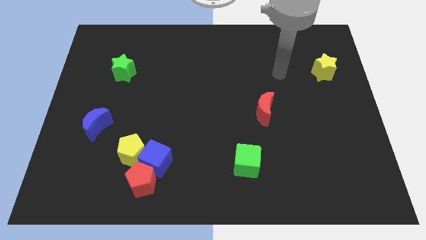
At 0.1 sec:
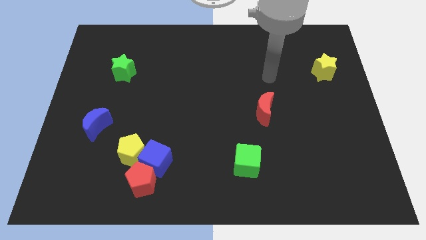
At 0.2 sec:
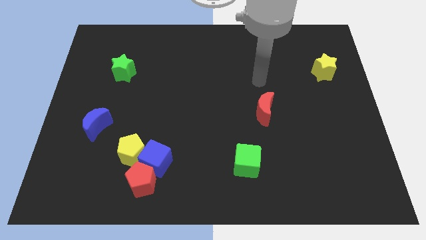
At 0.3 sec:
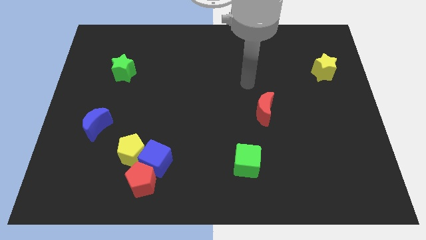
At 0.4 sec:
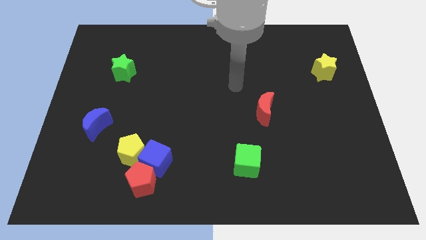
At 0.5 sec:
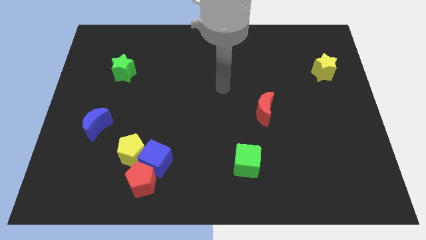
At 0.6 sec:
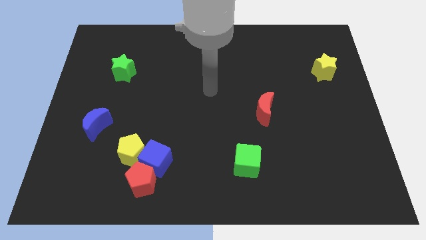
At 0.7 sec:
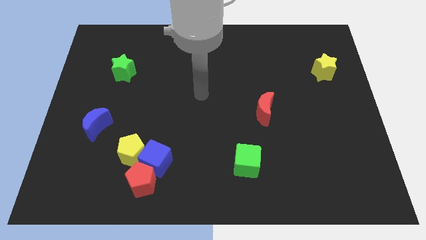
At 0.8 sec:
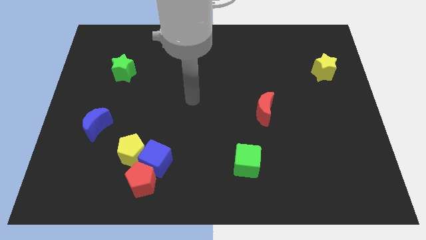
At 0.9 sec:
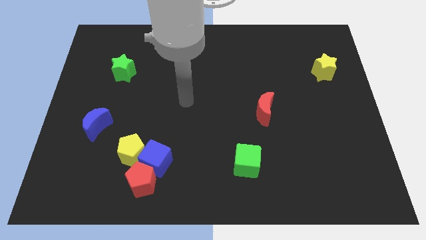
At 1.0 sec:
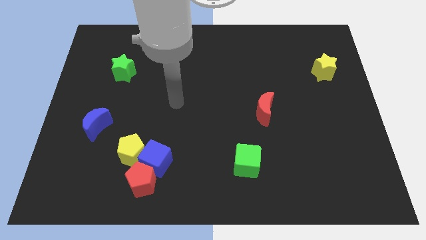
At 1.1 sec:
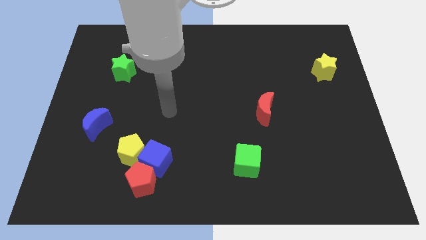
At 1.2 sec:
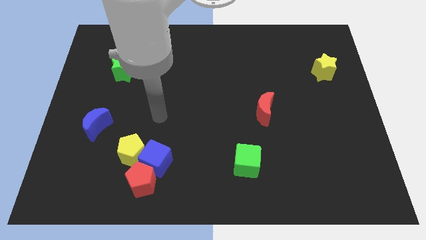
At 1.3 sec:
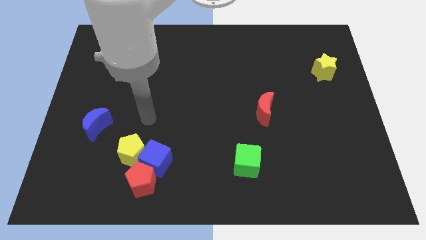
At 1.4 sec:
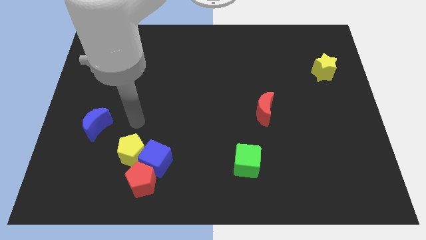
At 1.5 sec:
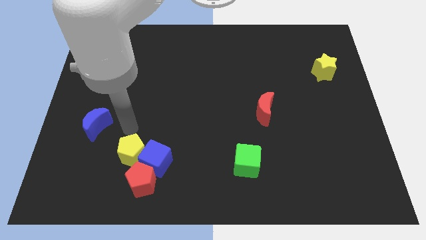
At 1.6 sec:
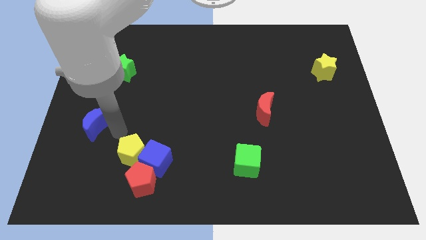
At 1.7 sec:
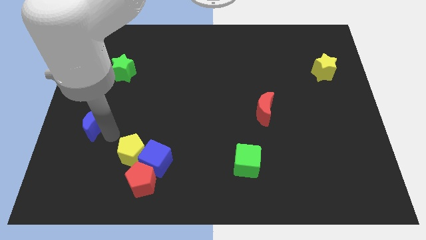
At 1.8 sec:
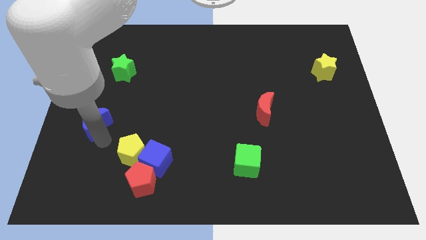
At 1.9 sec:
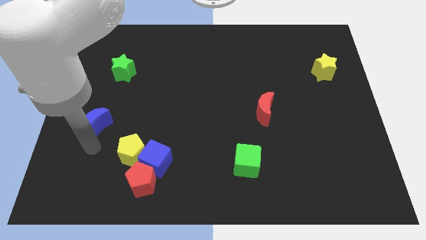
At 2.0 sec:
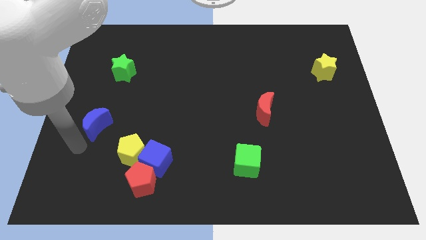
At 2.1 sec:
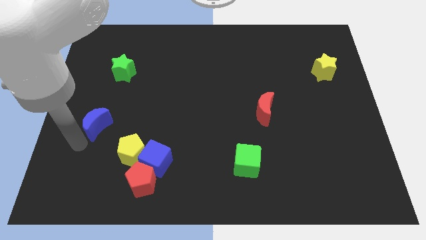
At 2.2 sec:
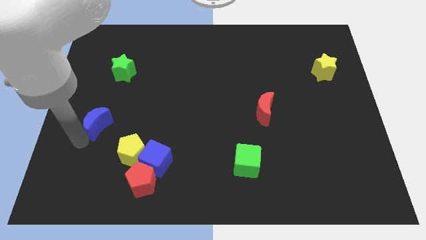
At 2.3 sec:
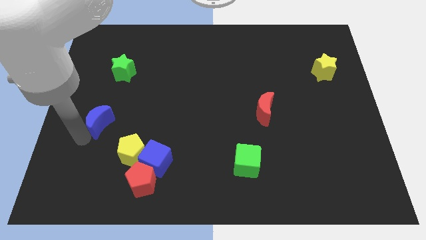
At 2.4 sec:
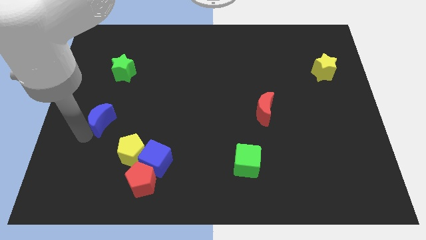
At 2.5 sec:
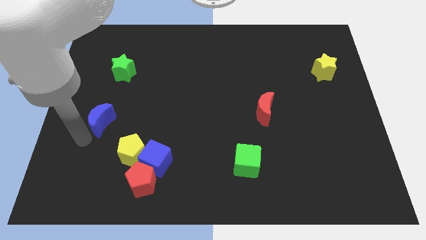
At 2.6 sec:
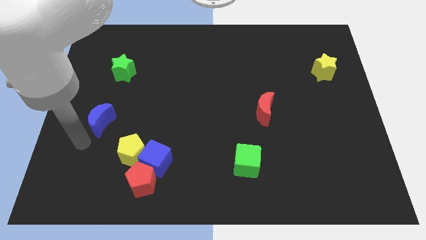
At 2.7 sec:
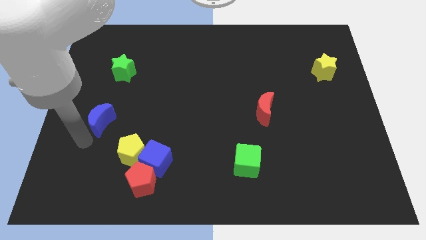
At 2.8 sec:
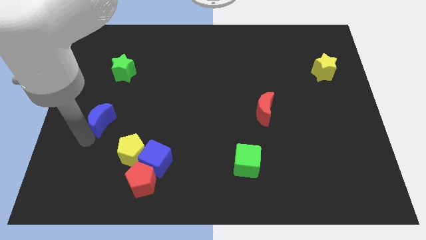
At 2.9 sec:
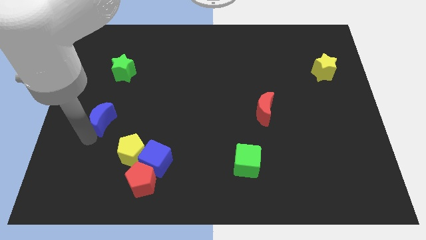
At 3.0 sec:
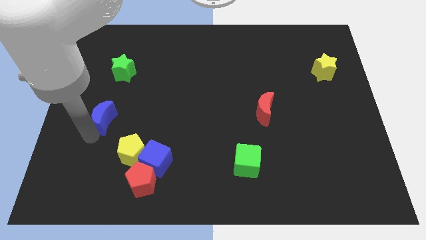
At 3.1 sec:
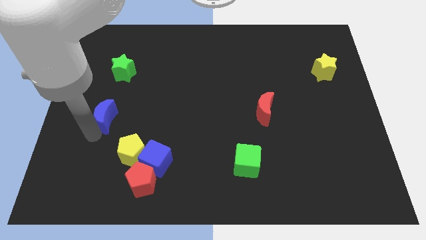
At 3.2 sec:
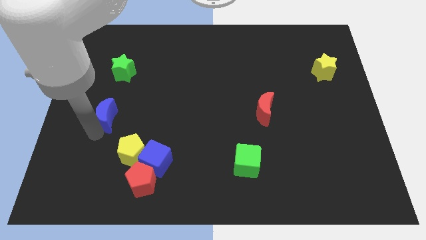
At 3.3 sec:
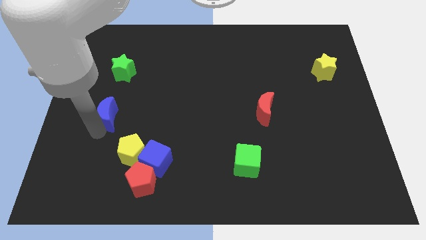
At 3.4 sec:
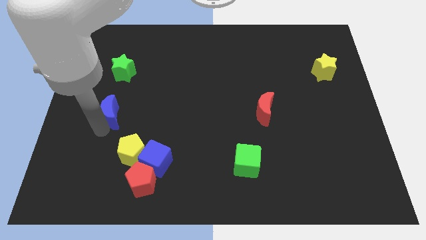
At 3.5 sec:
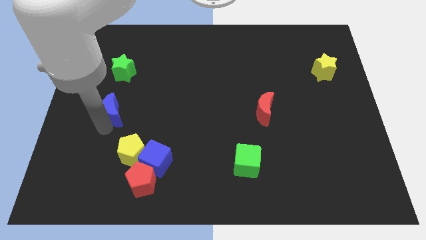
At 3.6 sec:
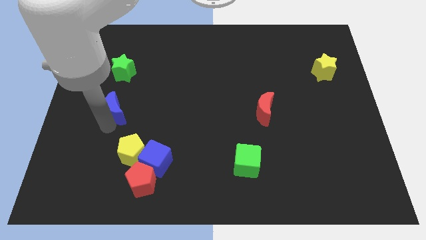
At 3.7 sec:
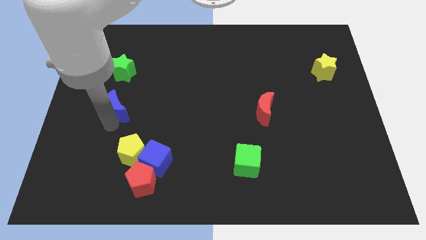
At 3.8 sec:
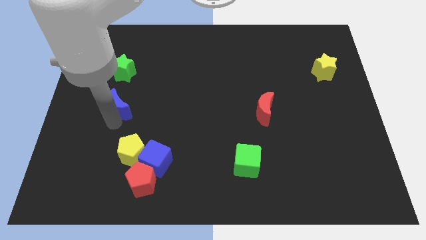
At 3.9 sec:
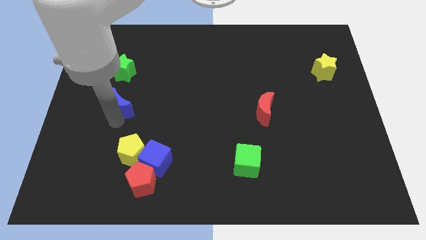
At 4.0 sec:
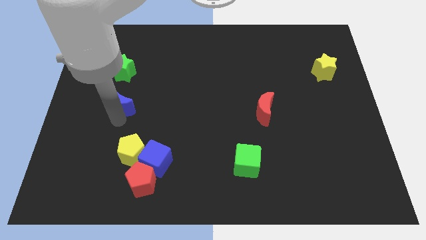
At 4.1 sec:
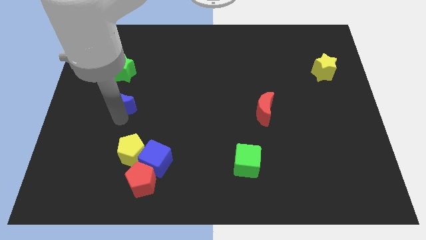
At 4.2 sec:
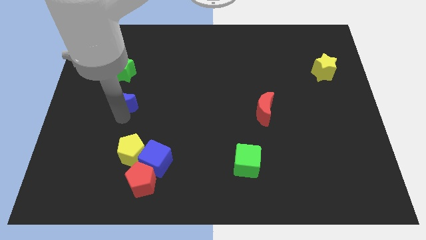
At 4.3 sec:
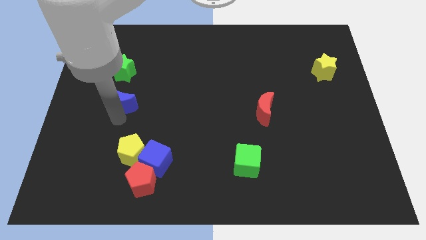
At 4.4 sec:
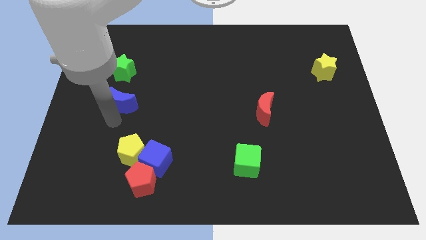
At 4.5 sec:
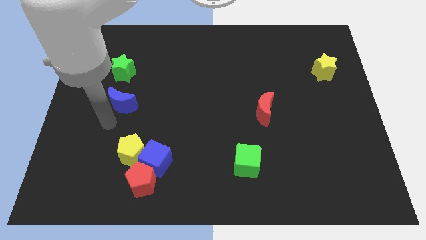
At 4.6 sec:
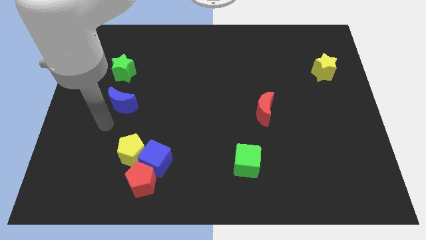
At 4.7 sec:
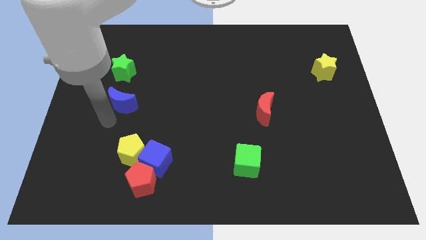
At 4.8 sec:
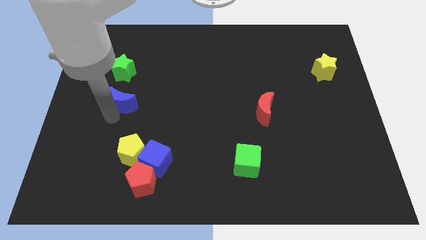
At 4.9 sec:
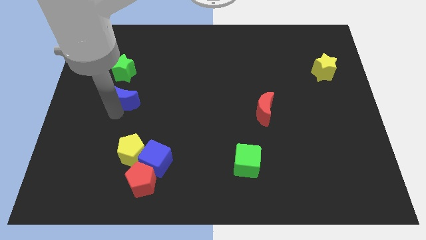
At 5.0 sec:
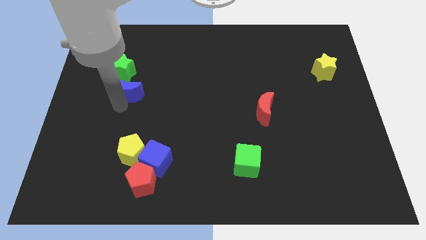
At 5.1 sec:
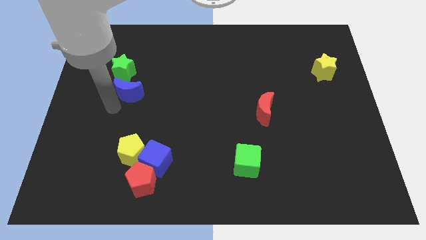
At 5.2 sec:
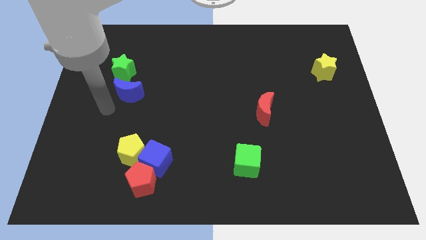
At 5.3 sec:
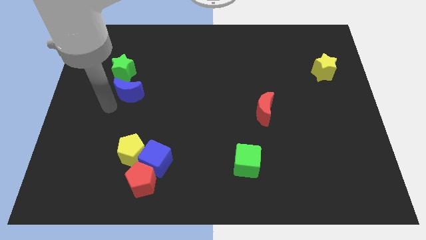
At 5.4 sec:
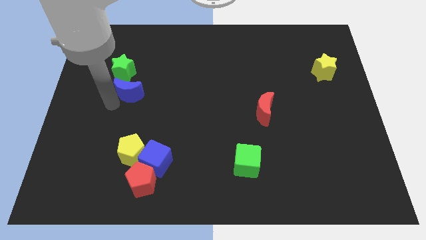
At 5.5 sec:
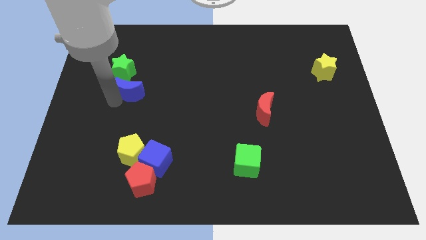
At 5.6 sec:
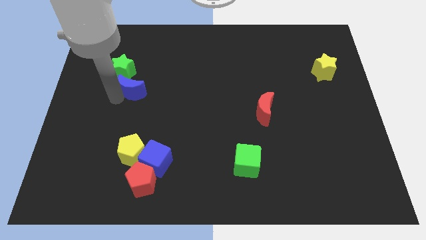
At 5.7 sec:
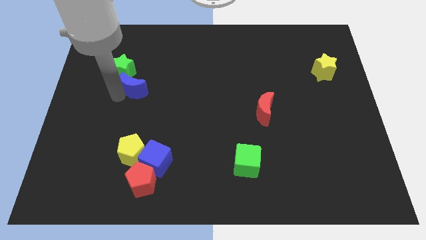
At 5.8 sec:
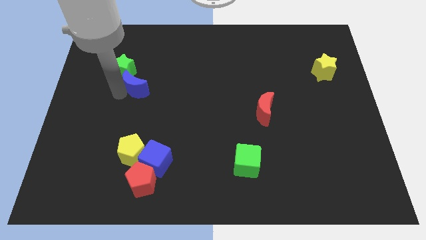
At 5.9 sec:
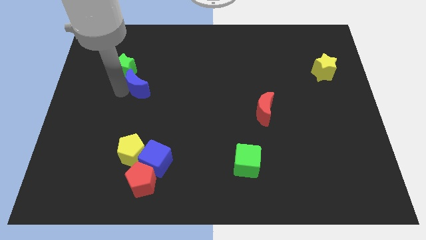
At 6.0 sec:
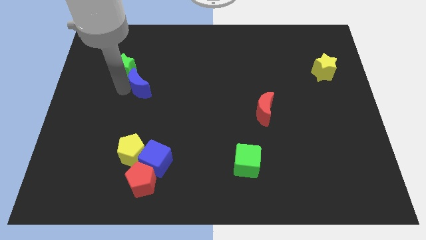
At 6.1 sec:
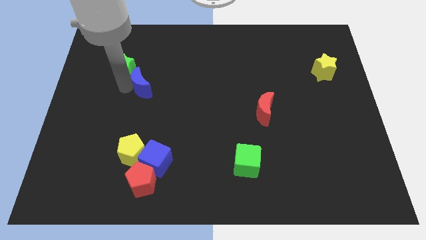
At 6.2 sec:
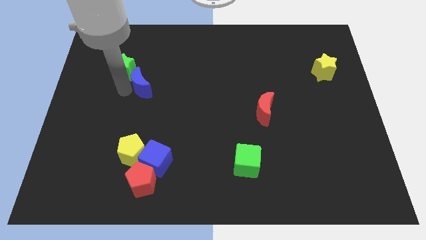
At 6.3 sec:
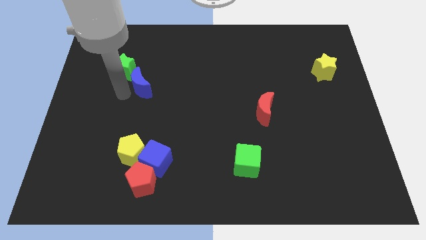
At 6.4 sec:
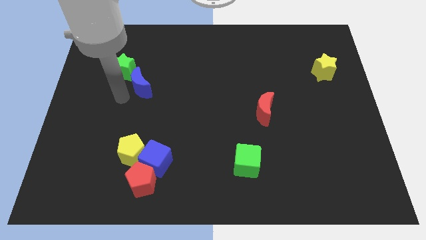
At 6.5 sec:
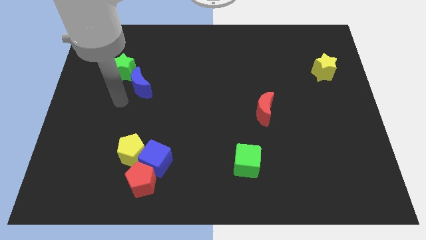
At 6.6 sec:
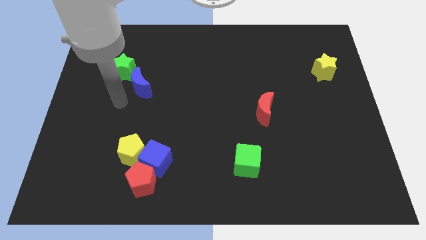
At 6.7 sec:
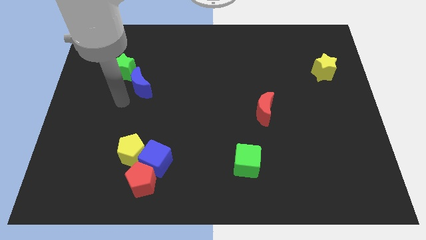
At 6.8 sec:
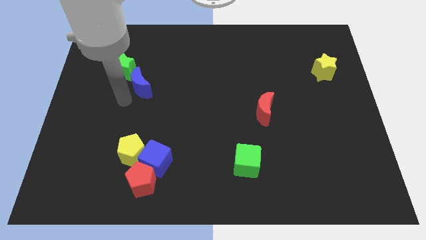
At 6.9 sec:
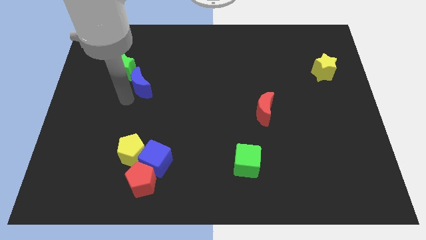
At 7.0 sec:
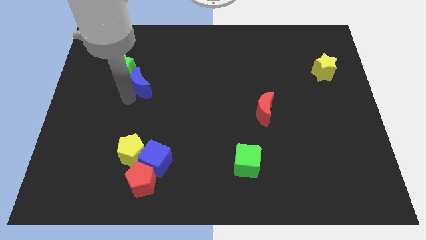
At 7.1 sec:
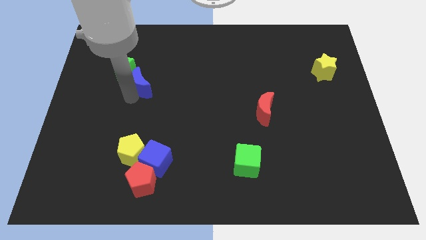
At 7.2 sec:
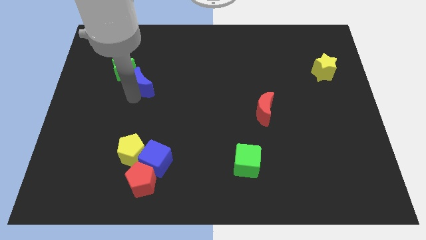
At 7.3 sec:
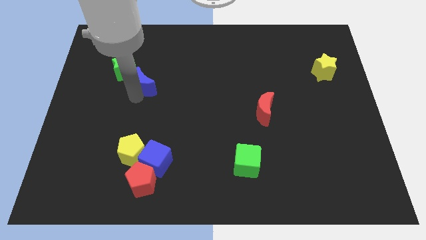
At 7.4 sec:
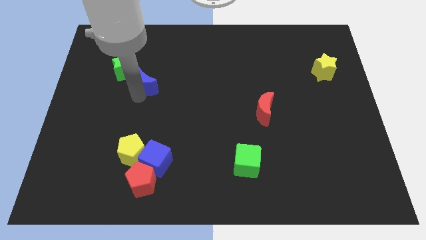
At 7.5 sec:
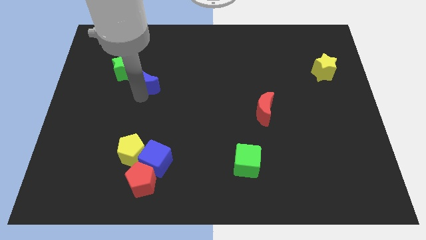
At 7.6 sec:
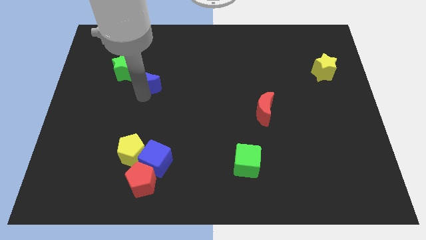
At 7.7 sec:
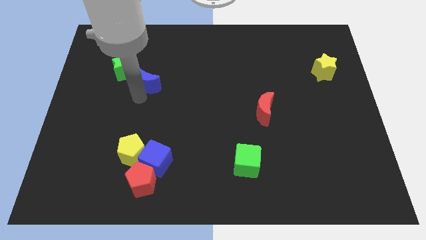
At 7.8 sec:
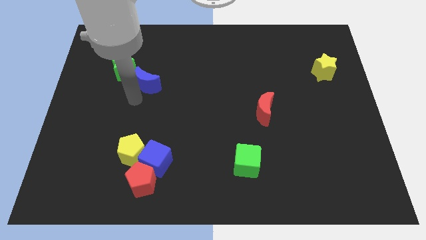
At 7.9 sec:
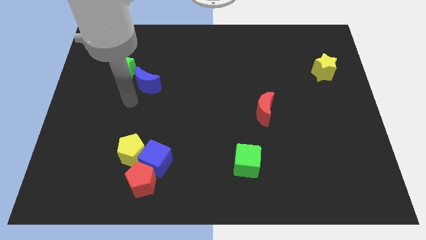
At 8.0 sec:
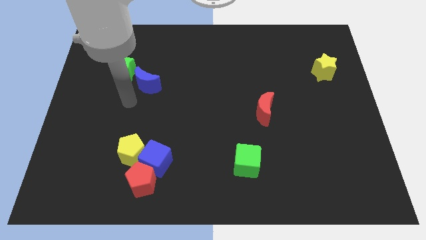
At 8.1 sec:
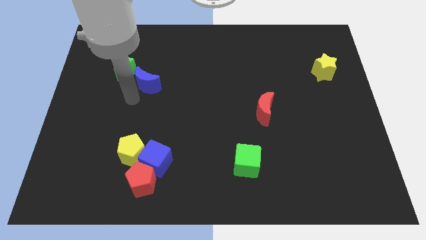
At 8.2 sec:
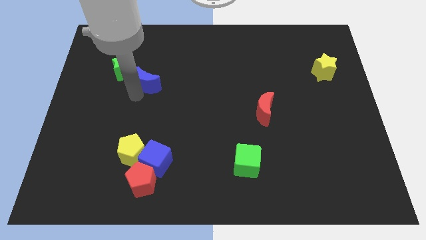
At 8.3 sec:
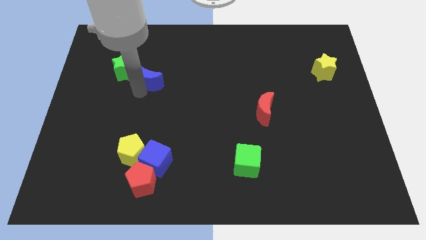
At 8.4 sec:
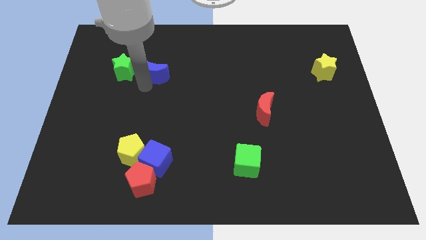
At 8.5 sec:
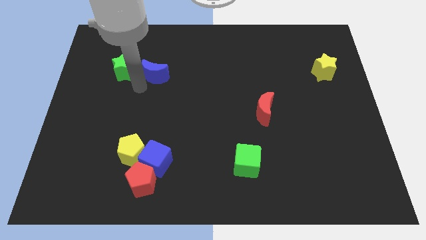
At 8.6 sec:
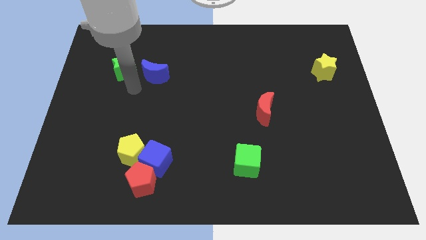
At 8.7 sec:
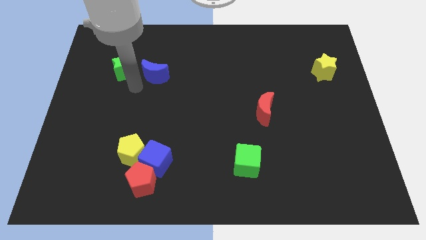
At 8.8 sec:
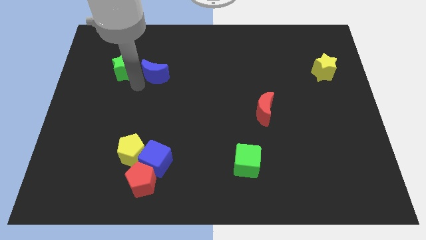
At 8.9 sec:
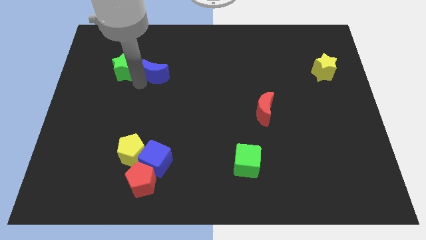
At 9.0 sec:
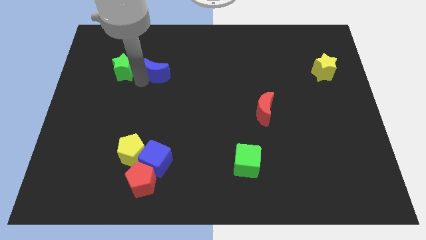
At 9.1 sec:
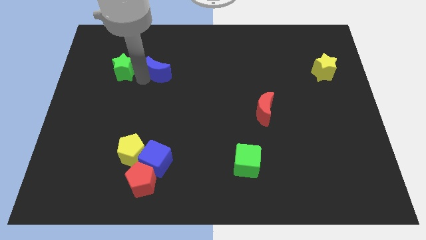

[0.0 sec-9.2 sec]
push the blue moon diagonally upwards and to the right
